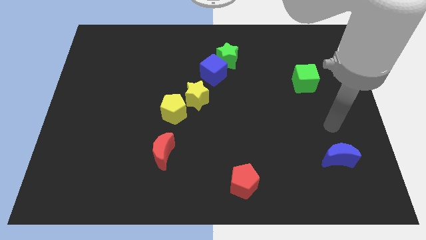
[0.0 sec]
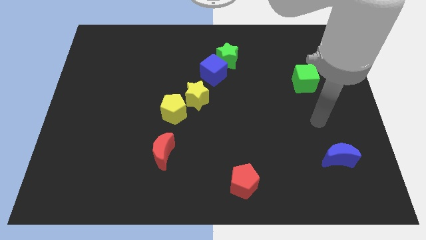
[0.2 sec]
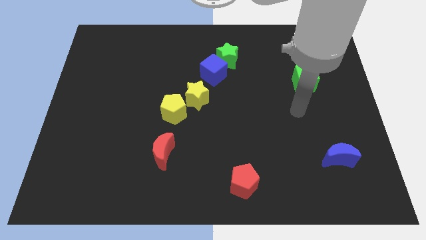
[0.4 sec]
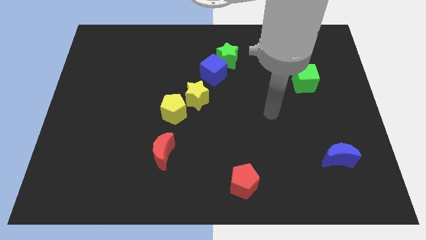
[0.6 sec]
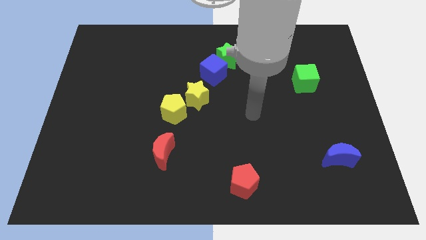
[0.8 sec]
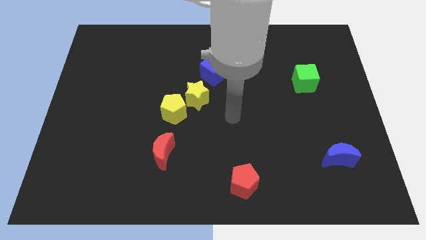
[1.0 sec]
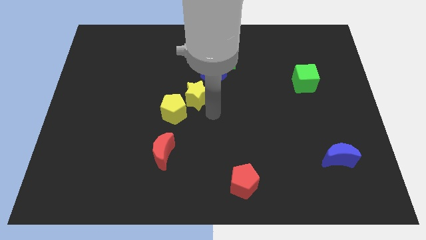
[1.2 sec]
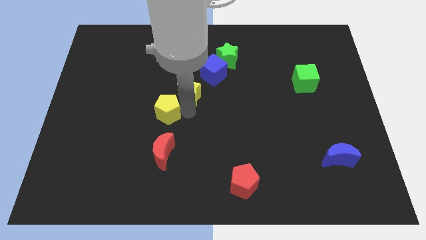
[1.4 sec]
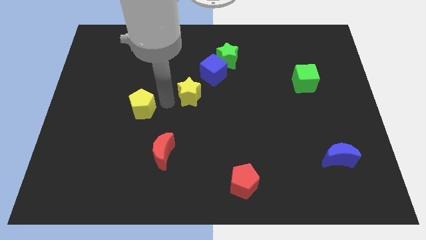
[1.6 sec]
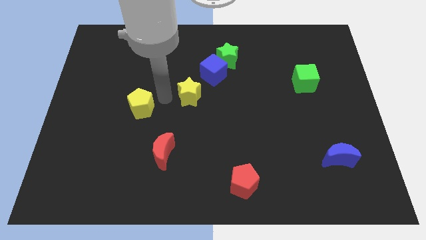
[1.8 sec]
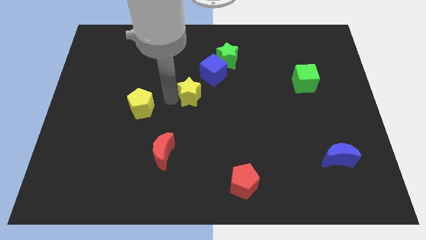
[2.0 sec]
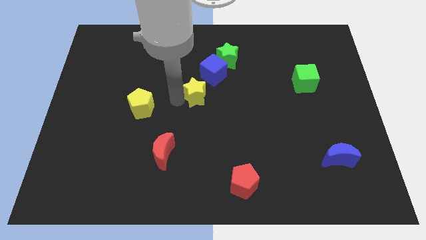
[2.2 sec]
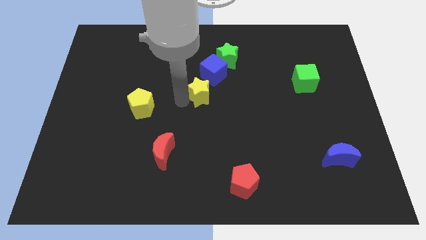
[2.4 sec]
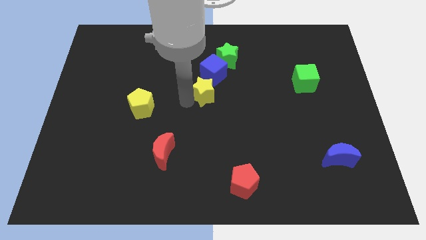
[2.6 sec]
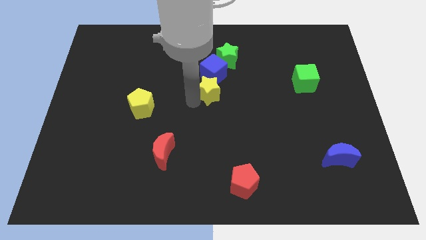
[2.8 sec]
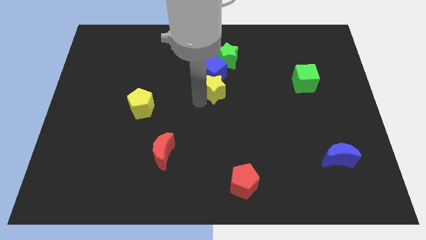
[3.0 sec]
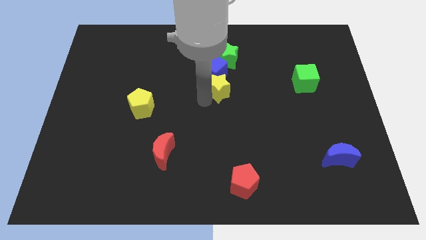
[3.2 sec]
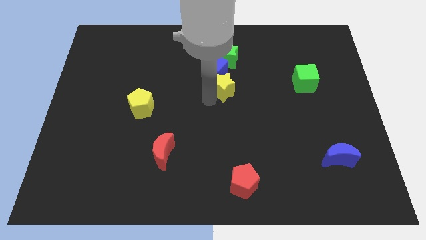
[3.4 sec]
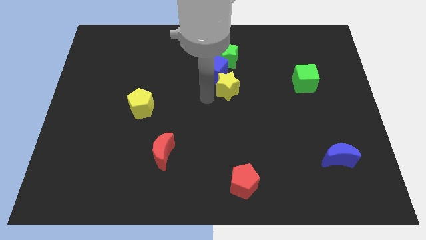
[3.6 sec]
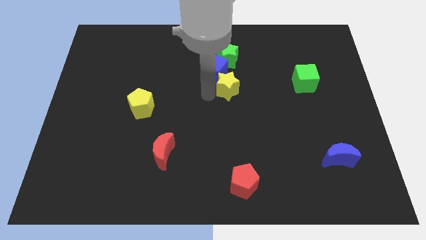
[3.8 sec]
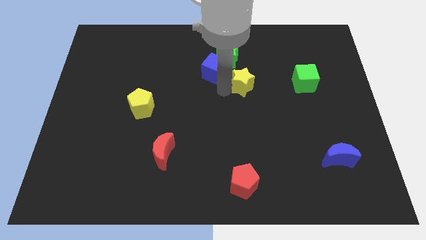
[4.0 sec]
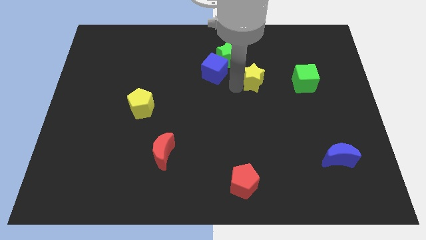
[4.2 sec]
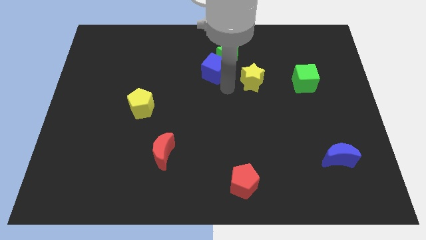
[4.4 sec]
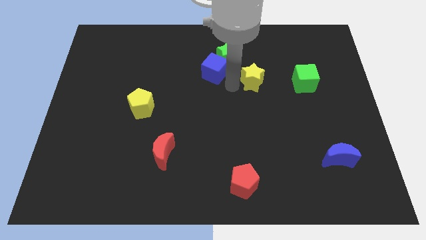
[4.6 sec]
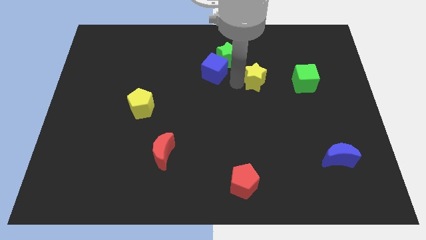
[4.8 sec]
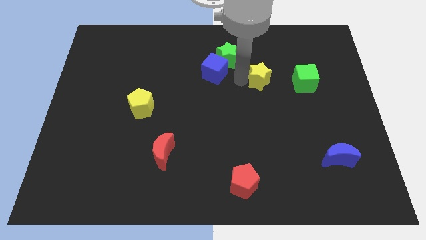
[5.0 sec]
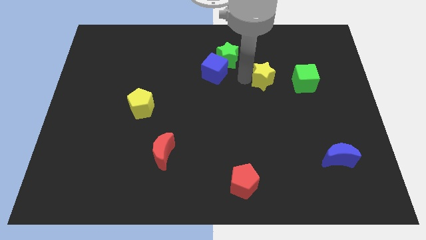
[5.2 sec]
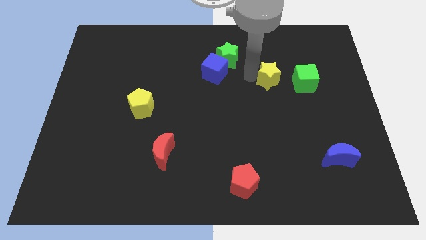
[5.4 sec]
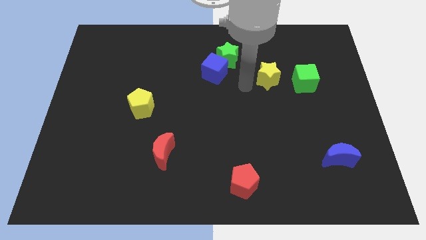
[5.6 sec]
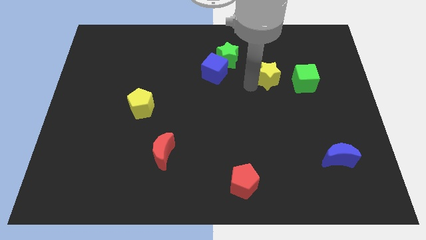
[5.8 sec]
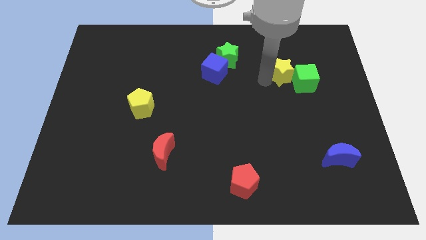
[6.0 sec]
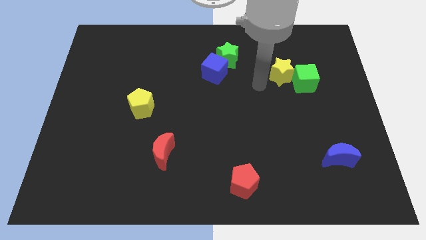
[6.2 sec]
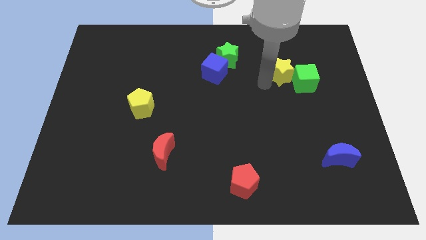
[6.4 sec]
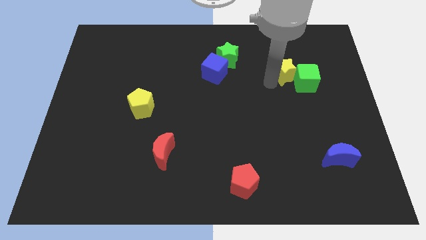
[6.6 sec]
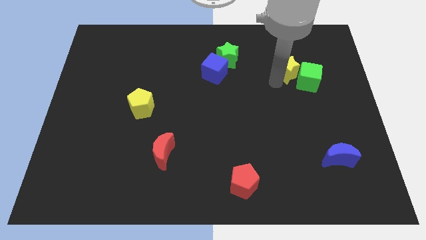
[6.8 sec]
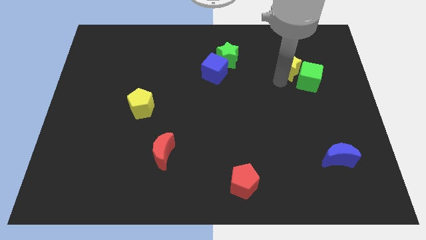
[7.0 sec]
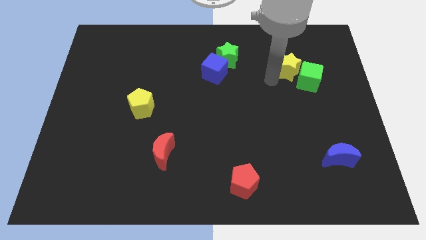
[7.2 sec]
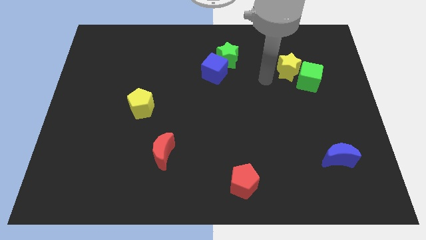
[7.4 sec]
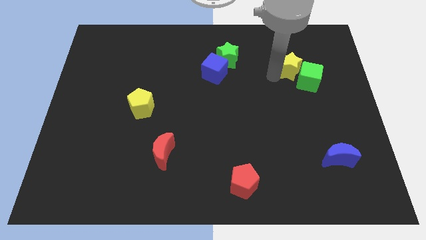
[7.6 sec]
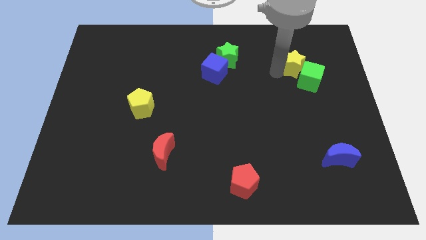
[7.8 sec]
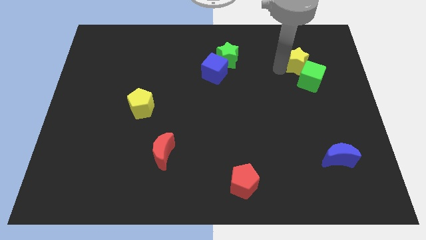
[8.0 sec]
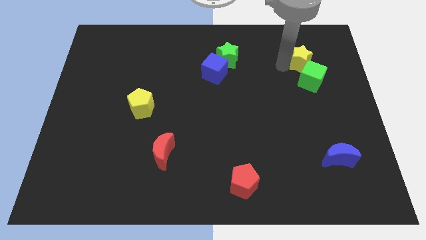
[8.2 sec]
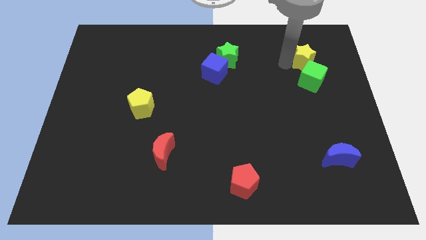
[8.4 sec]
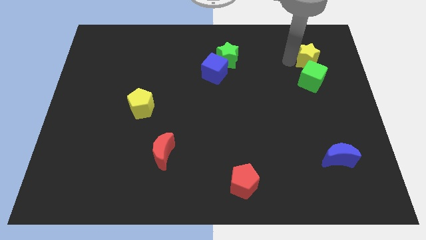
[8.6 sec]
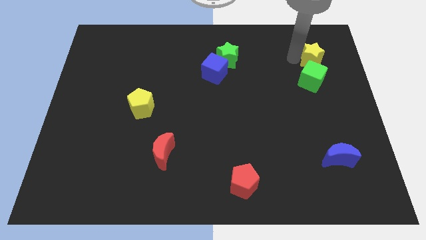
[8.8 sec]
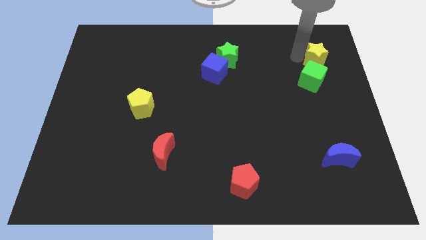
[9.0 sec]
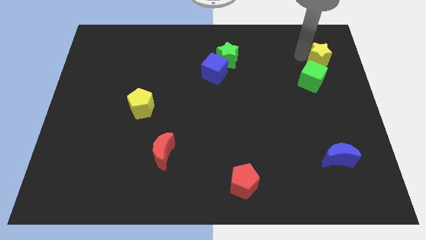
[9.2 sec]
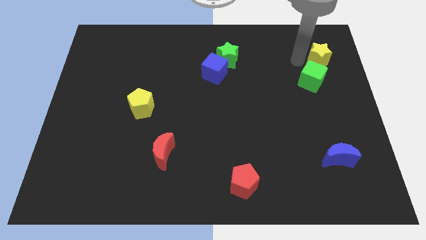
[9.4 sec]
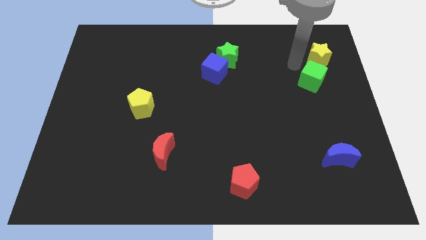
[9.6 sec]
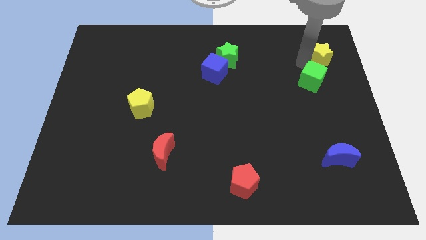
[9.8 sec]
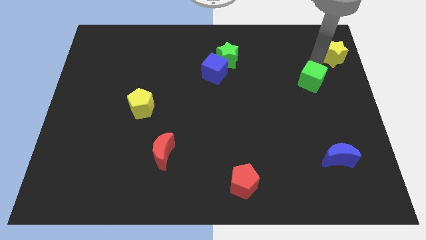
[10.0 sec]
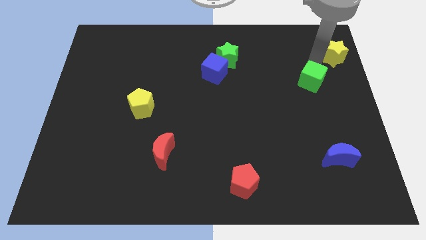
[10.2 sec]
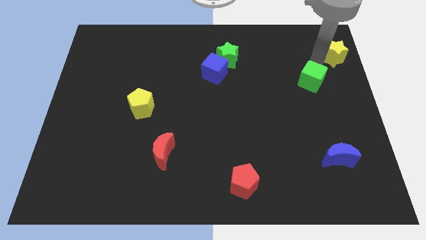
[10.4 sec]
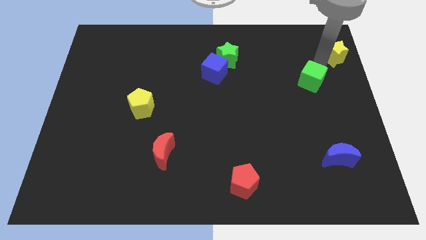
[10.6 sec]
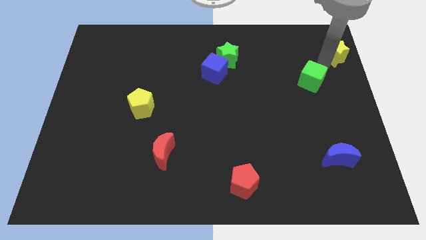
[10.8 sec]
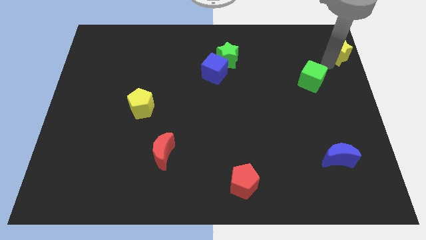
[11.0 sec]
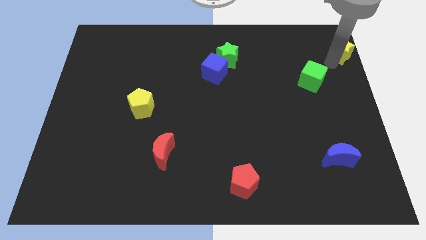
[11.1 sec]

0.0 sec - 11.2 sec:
push the yellow star to the top right corner

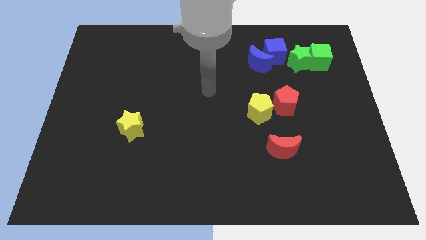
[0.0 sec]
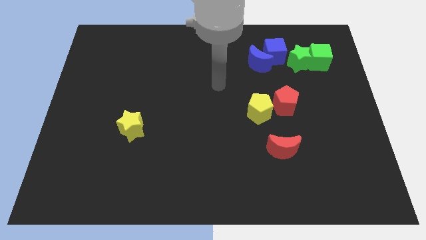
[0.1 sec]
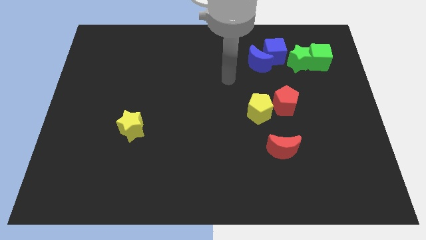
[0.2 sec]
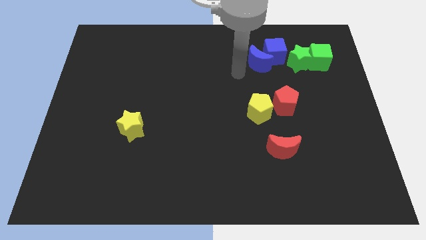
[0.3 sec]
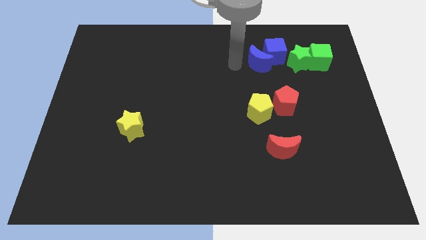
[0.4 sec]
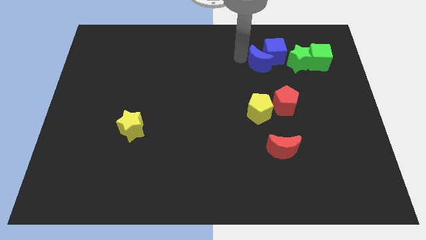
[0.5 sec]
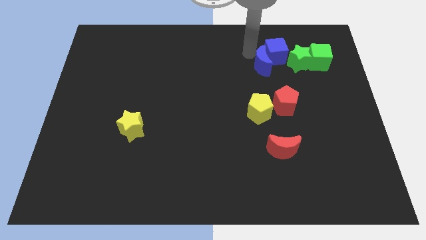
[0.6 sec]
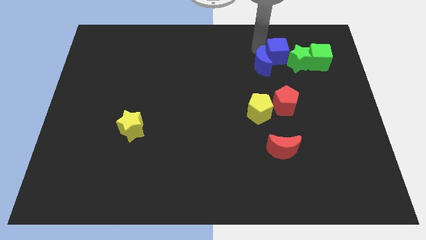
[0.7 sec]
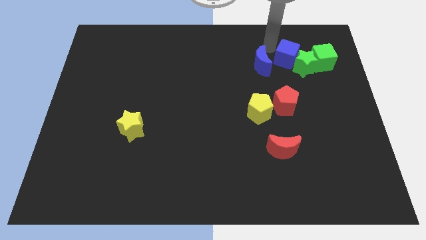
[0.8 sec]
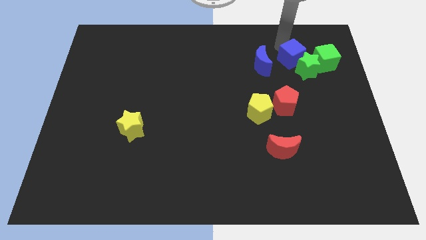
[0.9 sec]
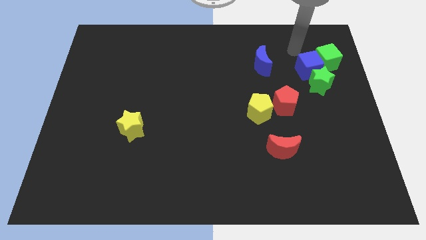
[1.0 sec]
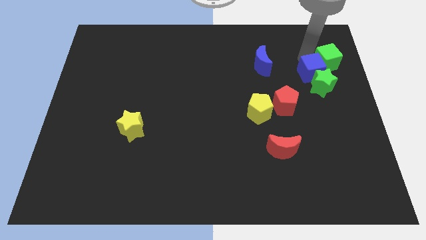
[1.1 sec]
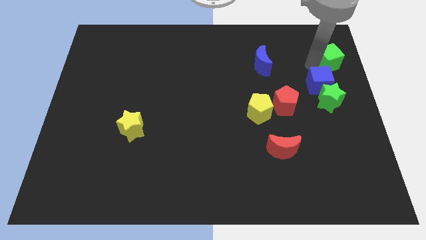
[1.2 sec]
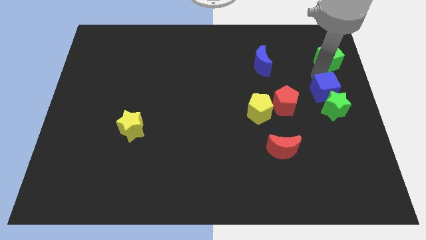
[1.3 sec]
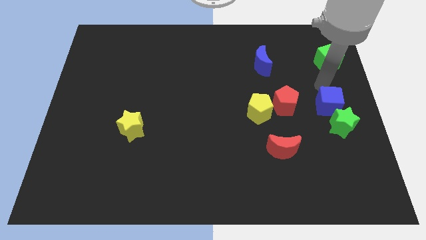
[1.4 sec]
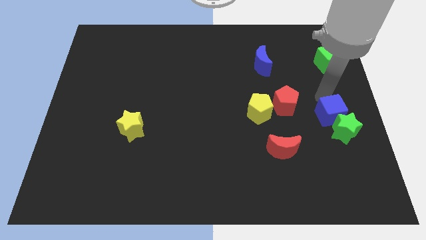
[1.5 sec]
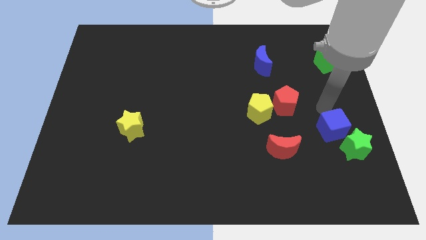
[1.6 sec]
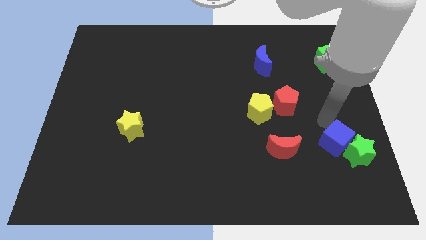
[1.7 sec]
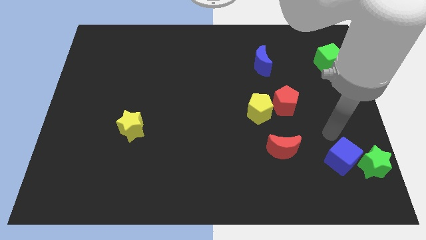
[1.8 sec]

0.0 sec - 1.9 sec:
put the green star to the bottom right corner
